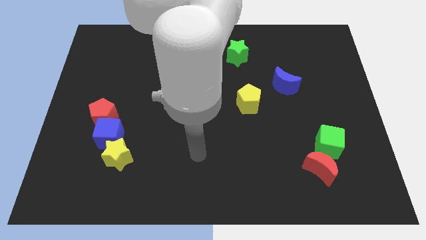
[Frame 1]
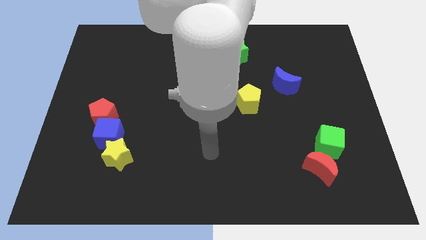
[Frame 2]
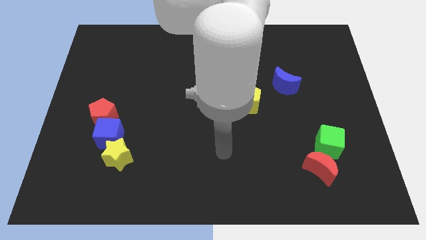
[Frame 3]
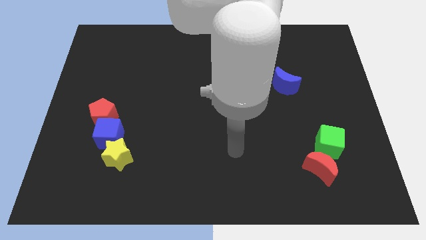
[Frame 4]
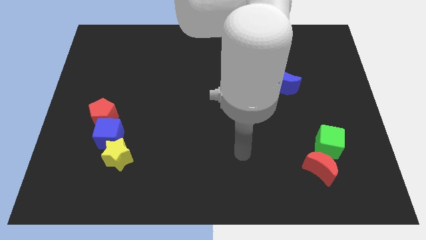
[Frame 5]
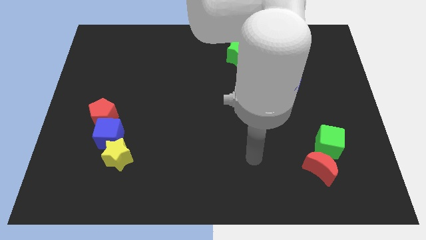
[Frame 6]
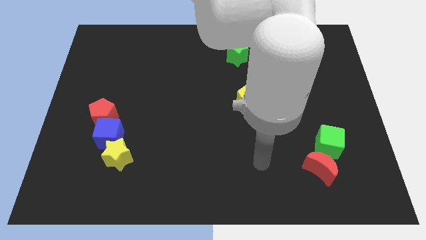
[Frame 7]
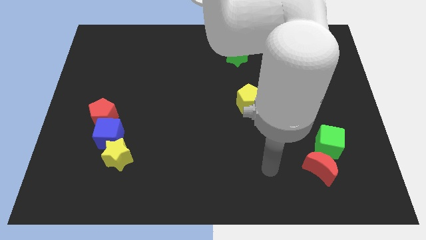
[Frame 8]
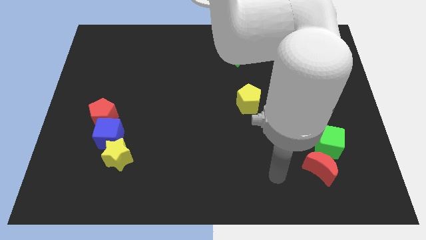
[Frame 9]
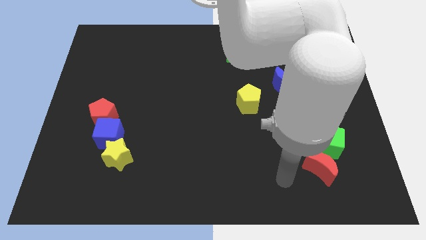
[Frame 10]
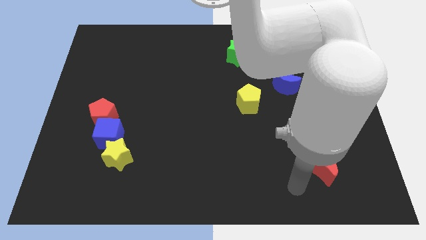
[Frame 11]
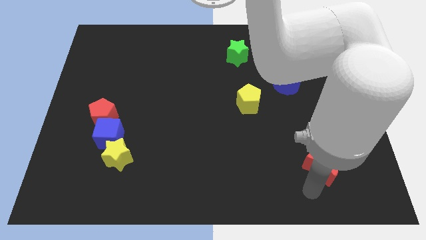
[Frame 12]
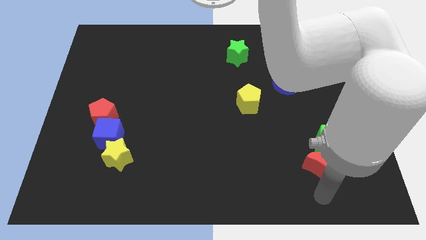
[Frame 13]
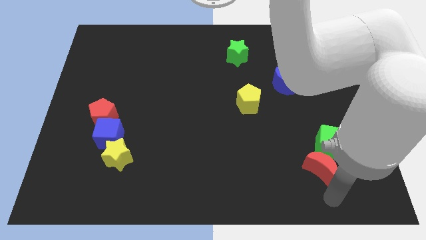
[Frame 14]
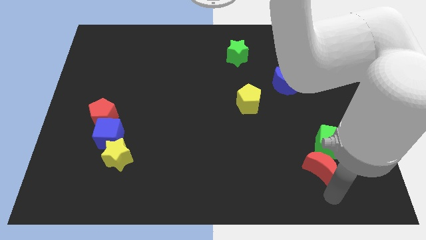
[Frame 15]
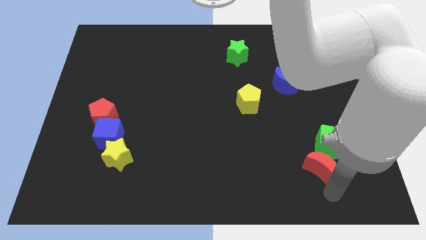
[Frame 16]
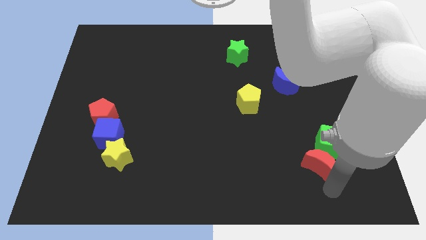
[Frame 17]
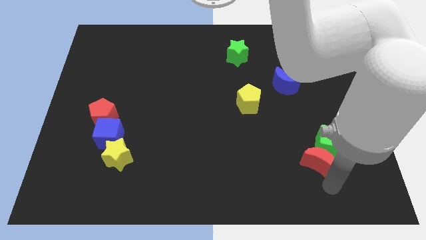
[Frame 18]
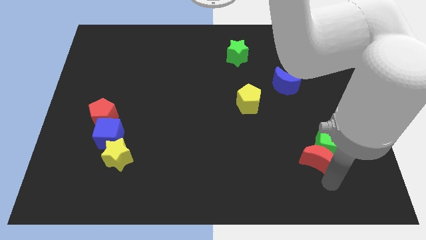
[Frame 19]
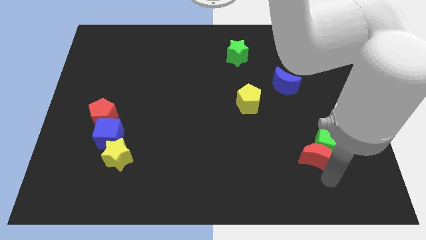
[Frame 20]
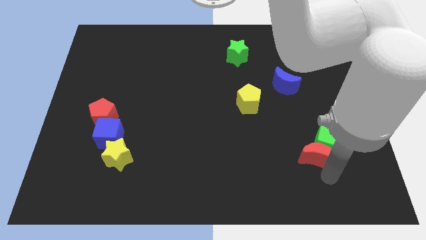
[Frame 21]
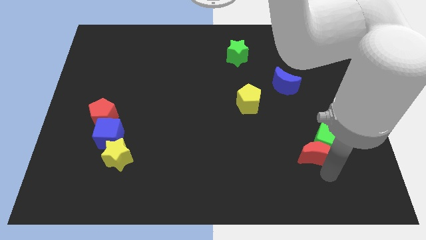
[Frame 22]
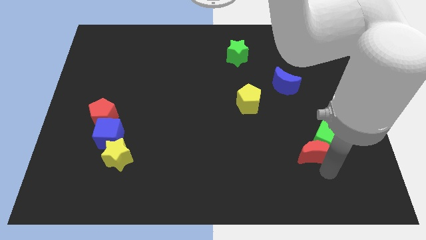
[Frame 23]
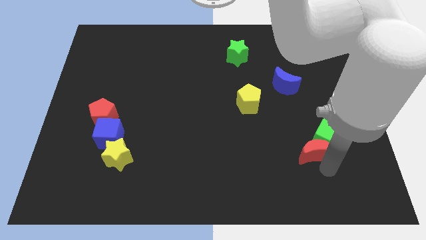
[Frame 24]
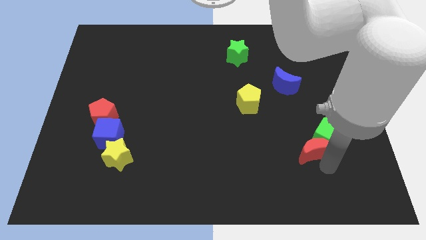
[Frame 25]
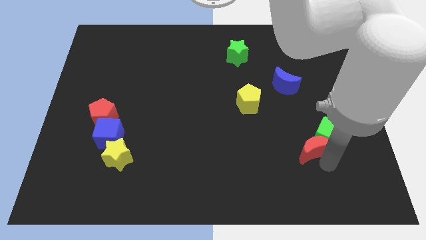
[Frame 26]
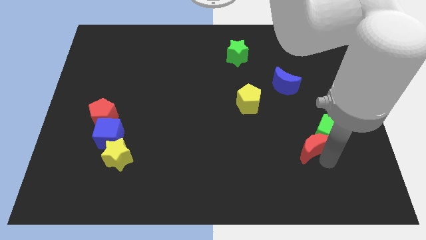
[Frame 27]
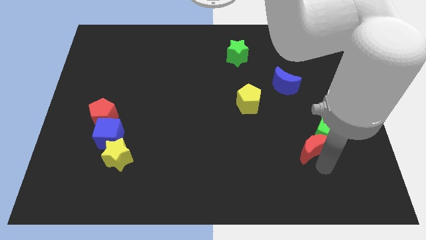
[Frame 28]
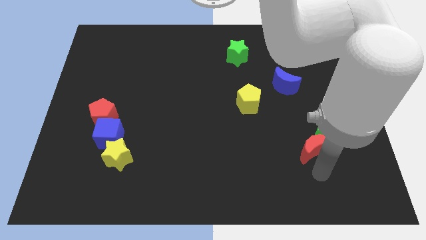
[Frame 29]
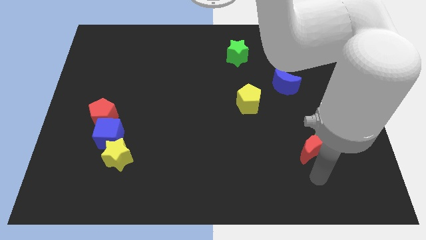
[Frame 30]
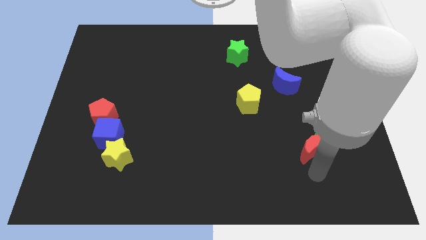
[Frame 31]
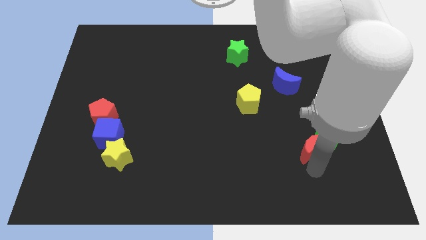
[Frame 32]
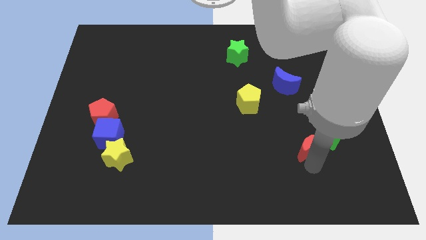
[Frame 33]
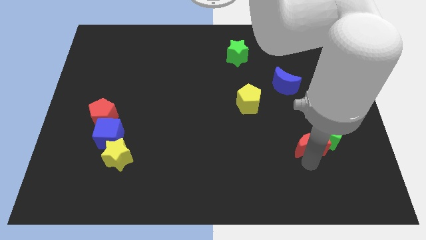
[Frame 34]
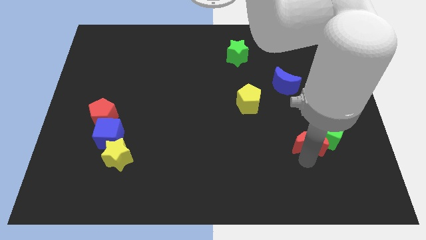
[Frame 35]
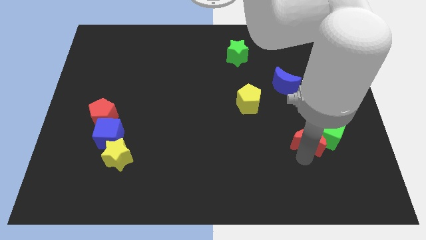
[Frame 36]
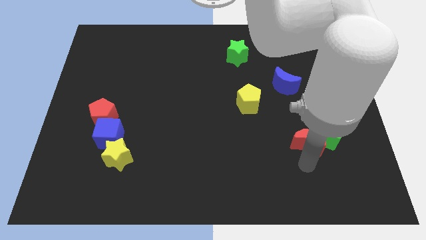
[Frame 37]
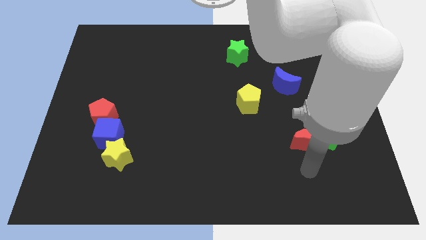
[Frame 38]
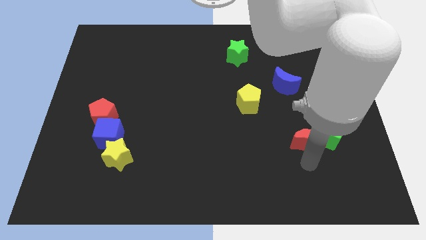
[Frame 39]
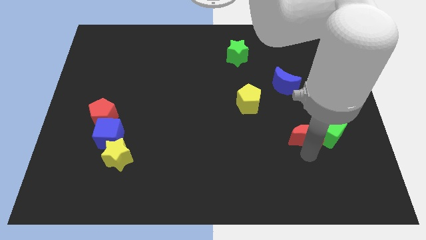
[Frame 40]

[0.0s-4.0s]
move the red moon slightly upwards

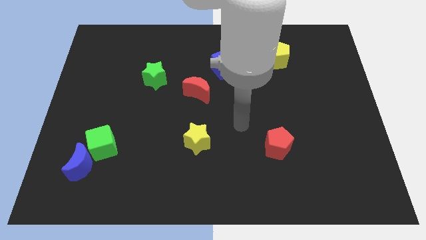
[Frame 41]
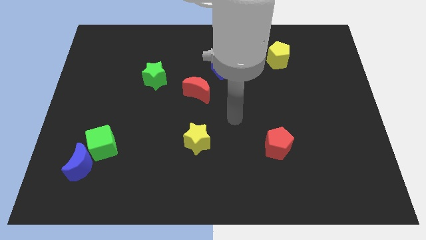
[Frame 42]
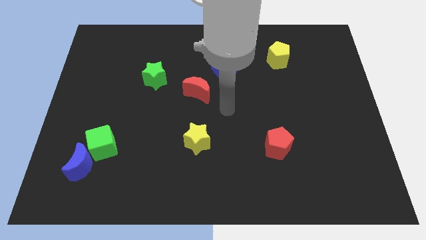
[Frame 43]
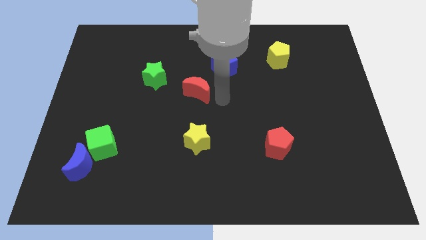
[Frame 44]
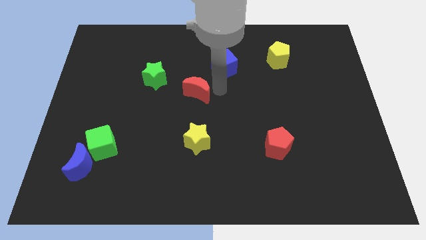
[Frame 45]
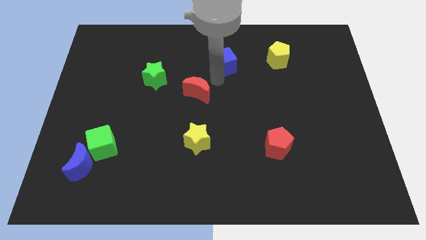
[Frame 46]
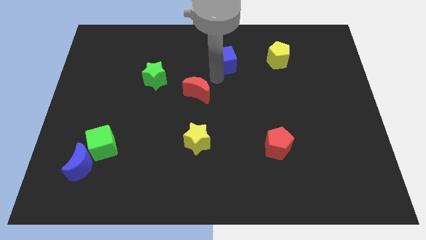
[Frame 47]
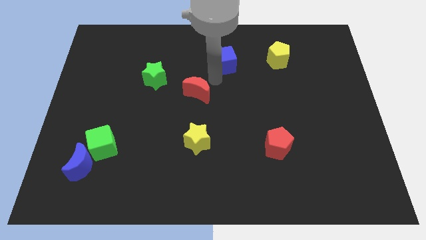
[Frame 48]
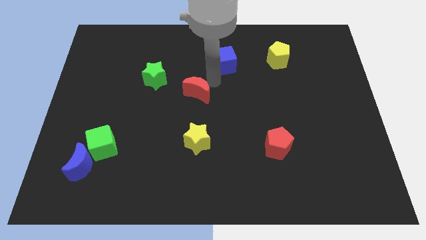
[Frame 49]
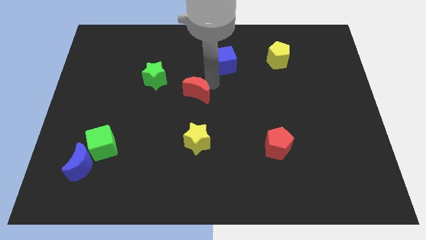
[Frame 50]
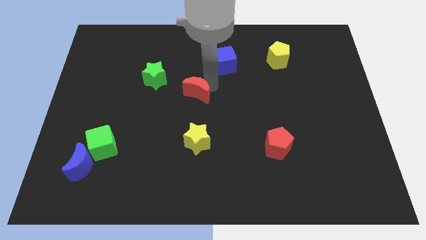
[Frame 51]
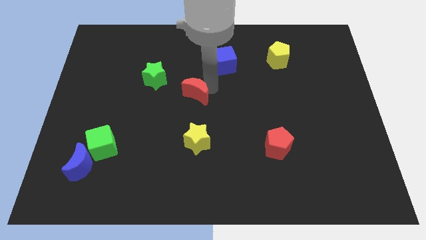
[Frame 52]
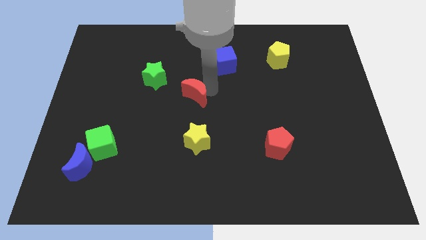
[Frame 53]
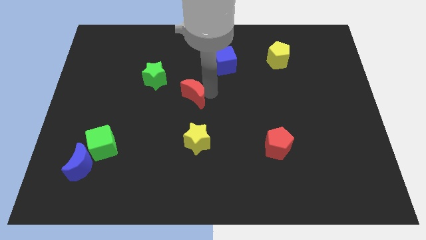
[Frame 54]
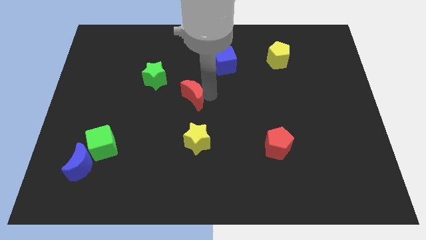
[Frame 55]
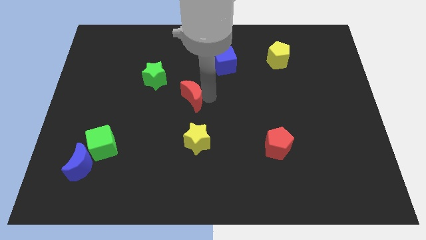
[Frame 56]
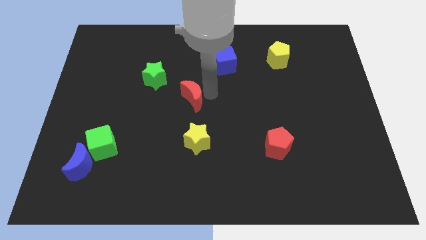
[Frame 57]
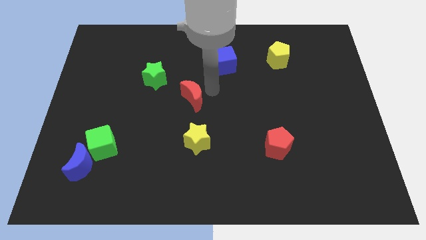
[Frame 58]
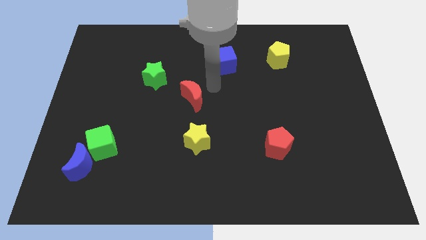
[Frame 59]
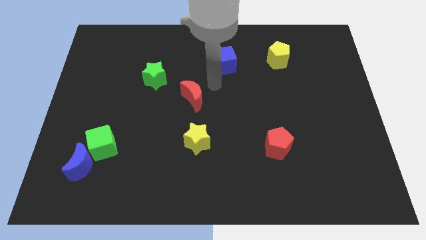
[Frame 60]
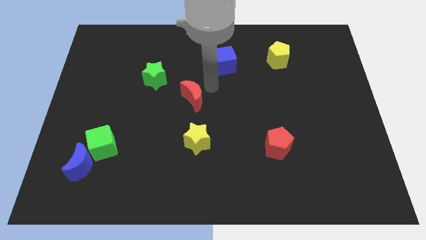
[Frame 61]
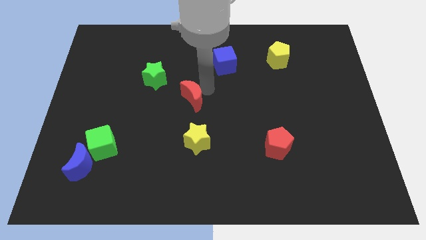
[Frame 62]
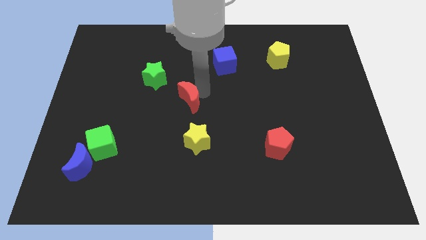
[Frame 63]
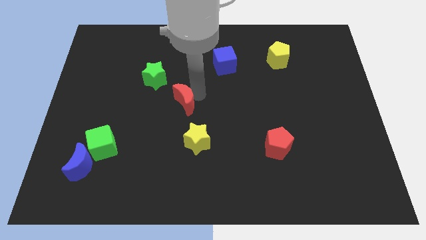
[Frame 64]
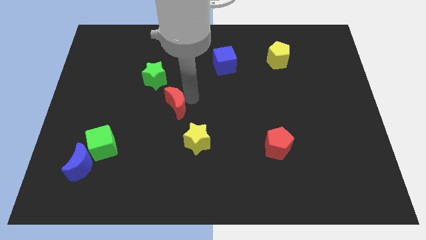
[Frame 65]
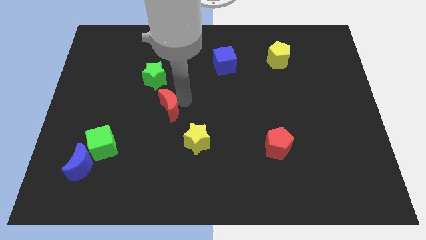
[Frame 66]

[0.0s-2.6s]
slide the red moon slightly downwards and left

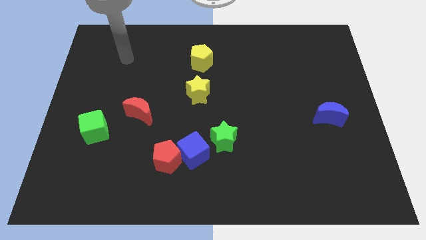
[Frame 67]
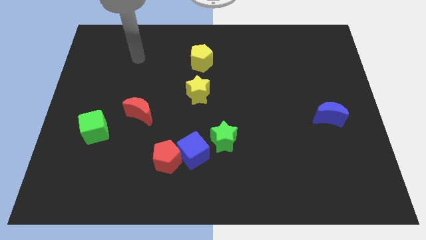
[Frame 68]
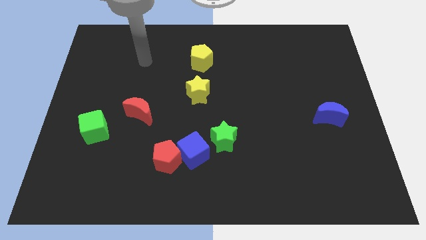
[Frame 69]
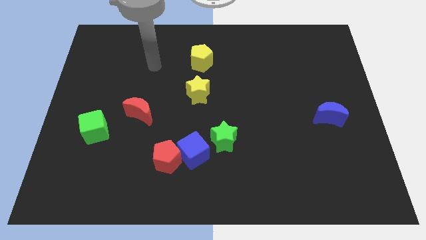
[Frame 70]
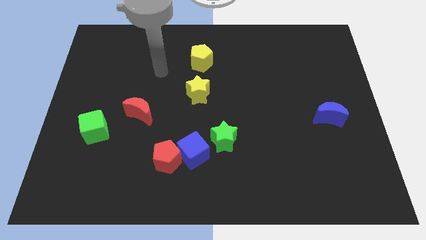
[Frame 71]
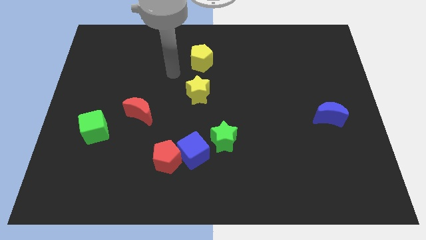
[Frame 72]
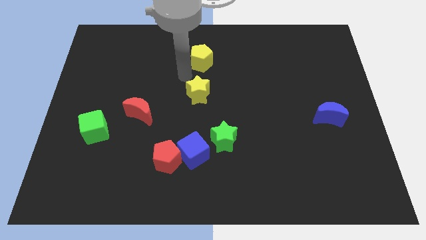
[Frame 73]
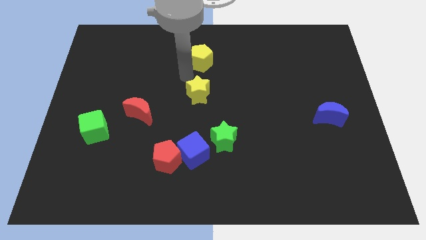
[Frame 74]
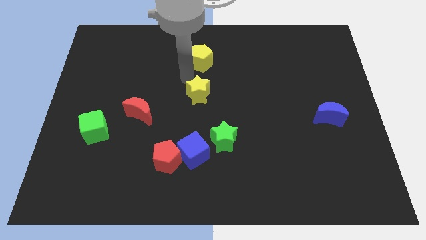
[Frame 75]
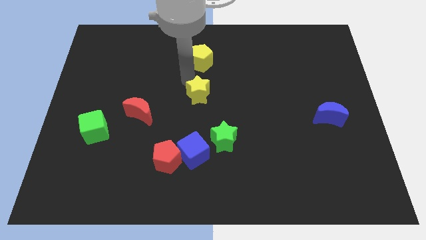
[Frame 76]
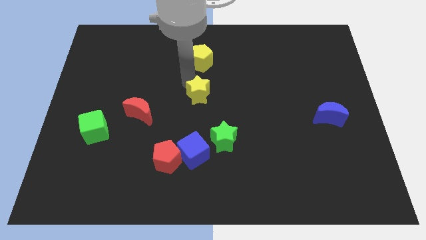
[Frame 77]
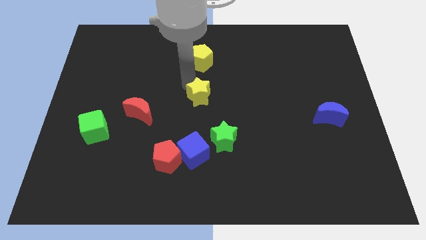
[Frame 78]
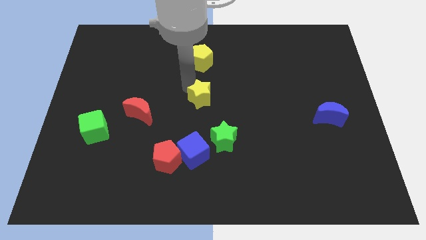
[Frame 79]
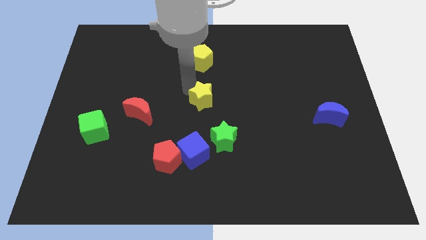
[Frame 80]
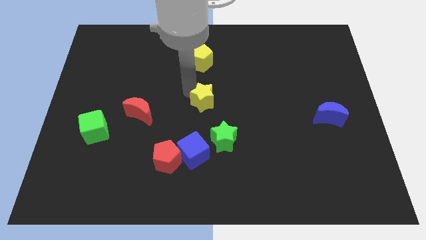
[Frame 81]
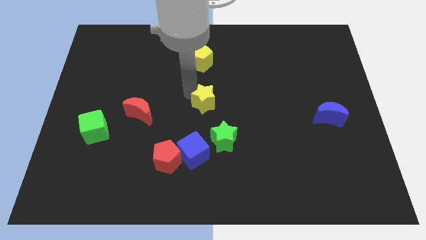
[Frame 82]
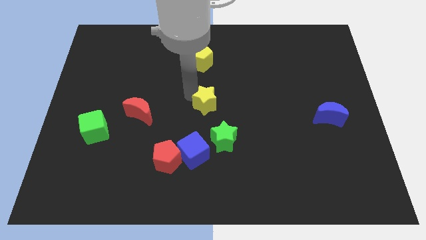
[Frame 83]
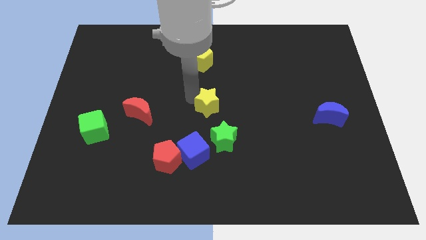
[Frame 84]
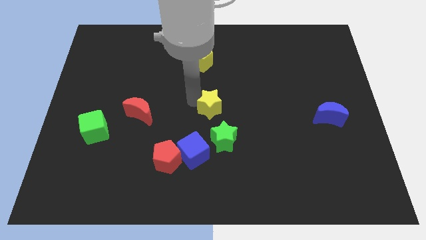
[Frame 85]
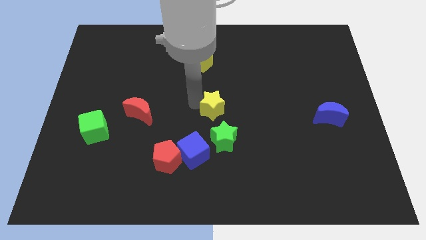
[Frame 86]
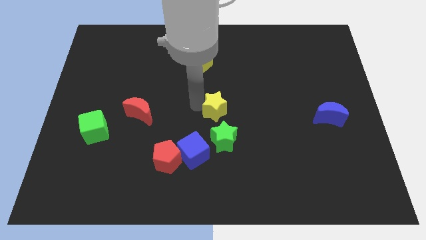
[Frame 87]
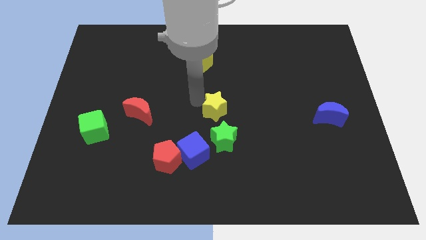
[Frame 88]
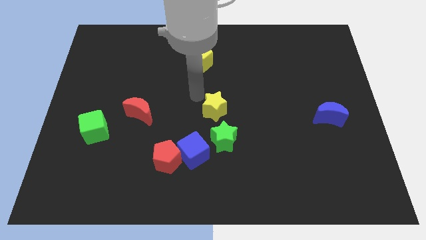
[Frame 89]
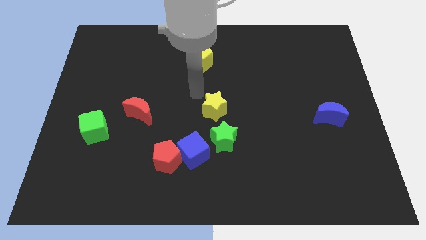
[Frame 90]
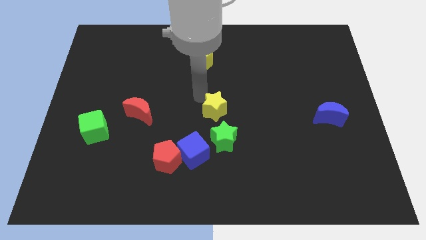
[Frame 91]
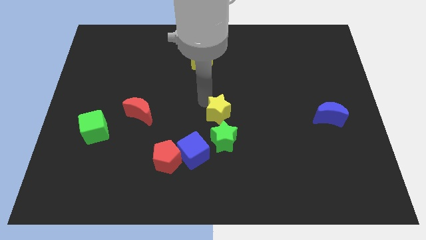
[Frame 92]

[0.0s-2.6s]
slightly push the yellow star downwards and right
